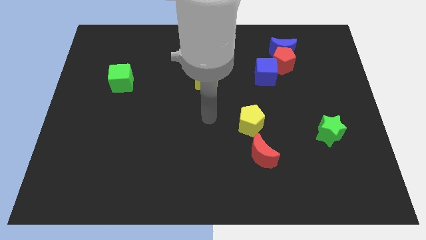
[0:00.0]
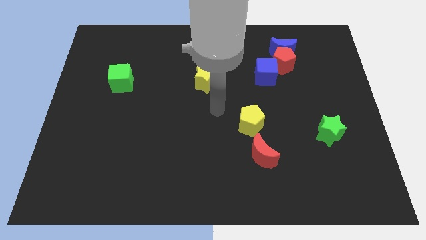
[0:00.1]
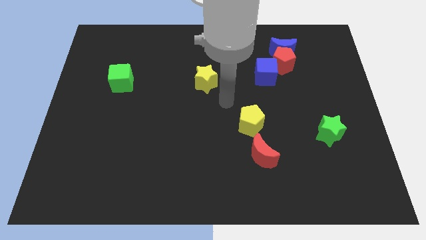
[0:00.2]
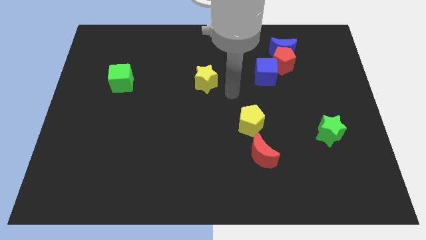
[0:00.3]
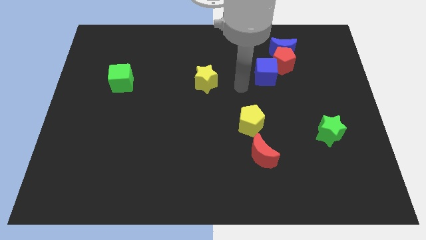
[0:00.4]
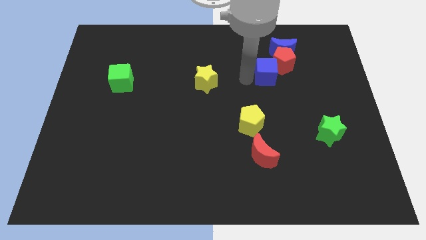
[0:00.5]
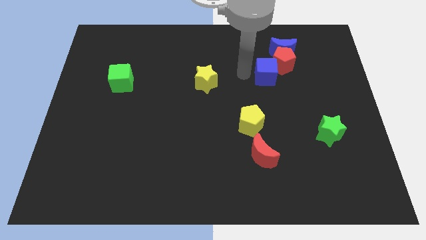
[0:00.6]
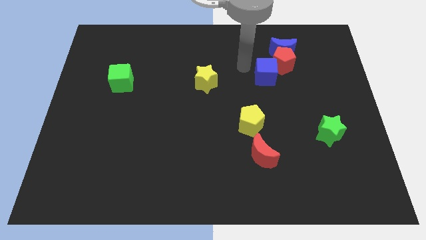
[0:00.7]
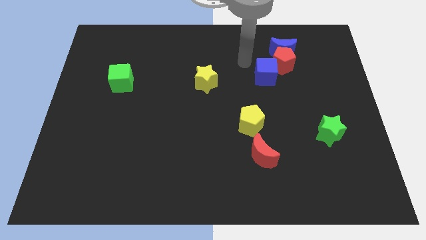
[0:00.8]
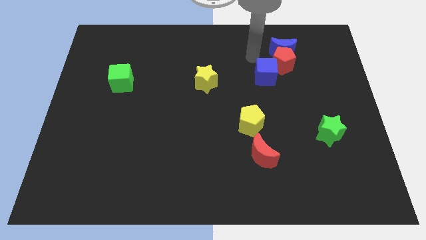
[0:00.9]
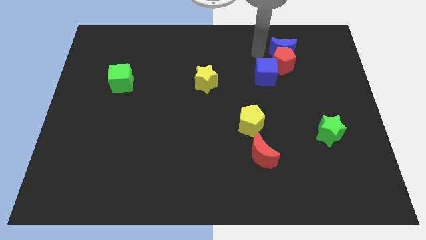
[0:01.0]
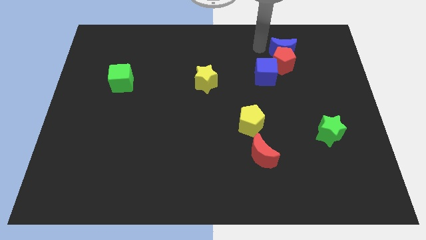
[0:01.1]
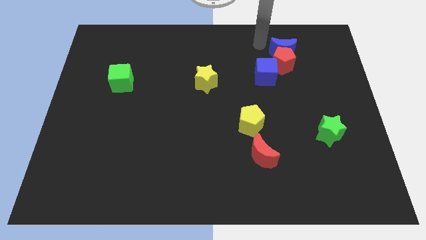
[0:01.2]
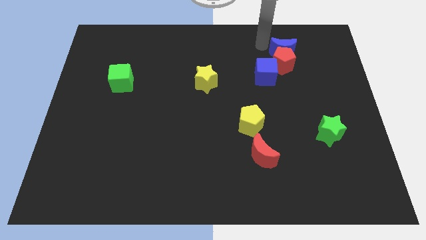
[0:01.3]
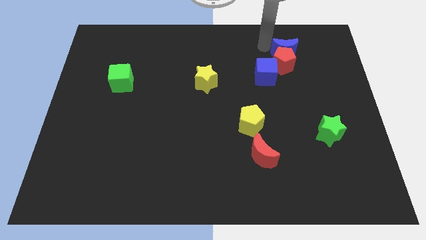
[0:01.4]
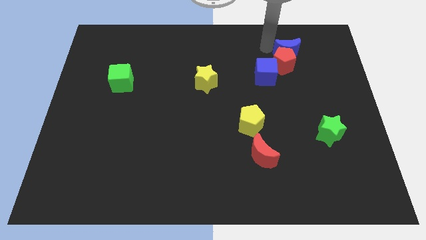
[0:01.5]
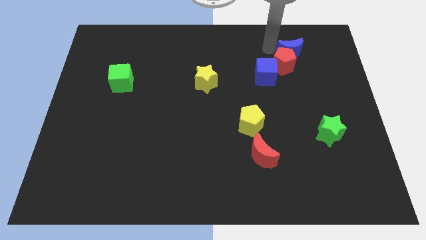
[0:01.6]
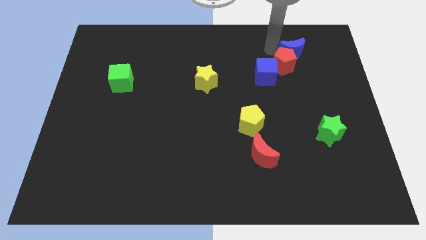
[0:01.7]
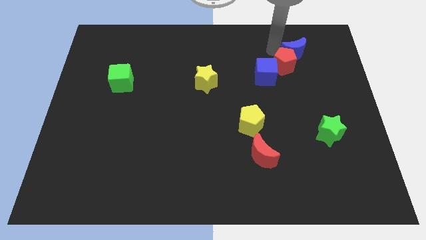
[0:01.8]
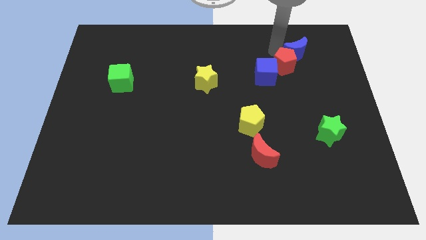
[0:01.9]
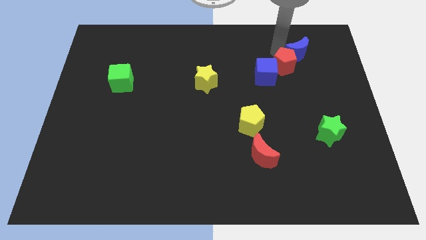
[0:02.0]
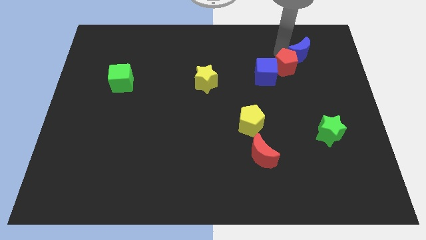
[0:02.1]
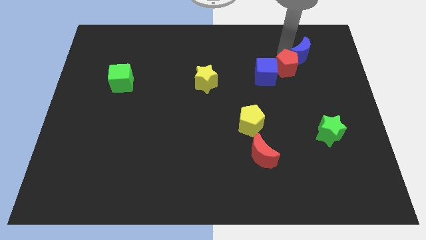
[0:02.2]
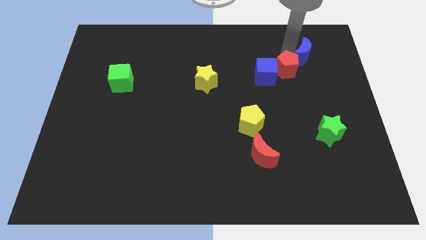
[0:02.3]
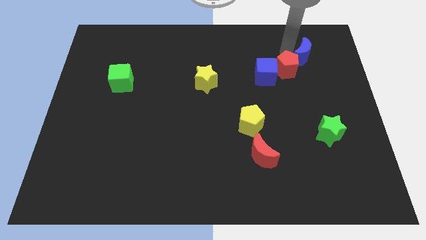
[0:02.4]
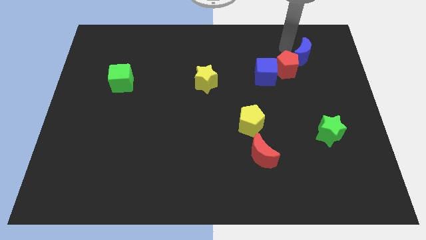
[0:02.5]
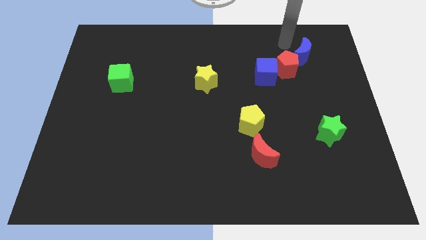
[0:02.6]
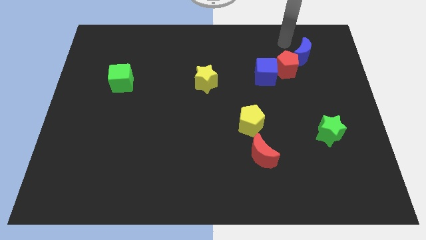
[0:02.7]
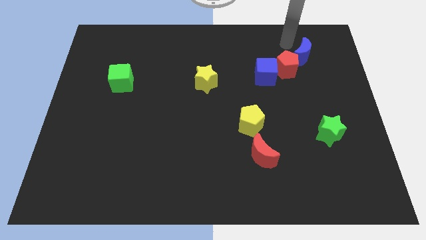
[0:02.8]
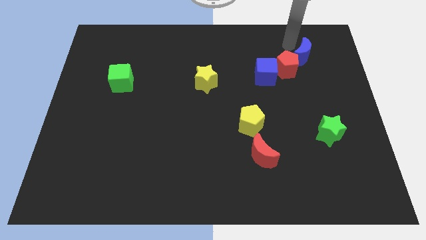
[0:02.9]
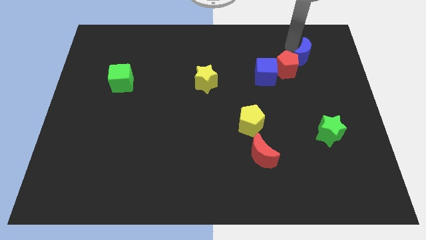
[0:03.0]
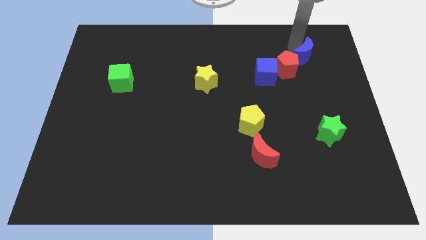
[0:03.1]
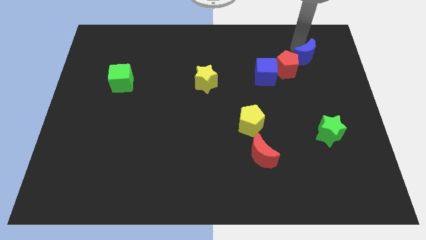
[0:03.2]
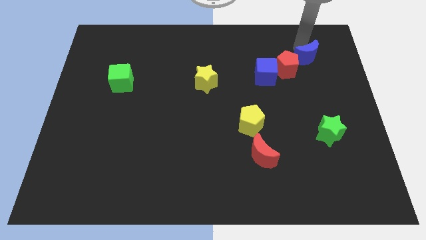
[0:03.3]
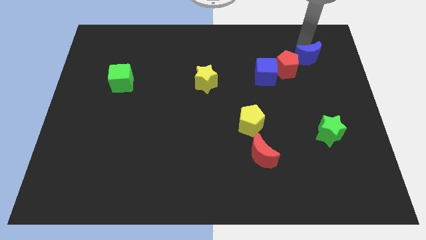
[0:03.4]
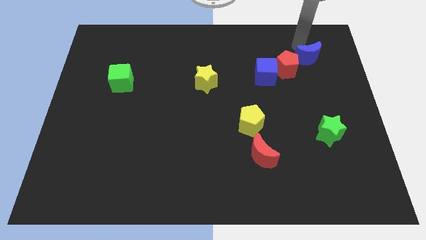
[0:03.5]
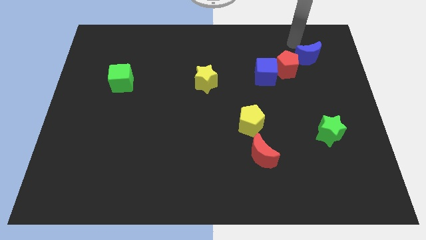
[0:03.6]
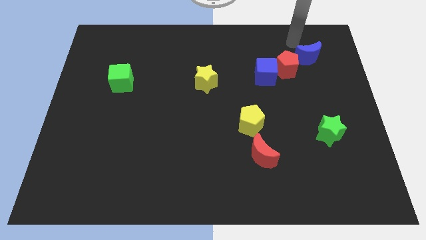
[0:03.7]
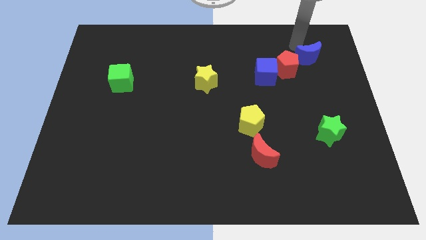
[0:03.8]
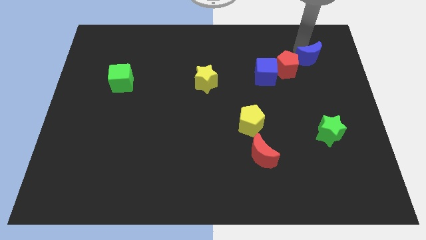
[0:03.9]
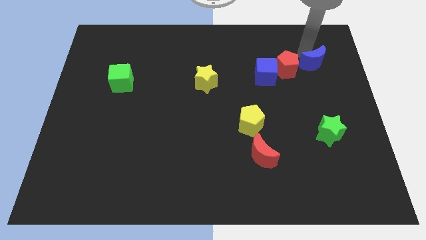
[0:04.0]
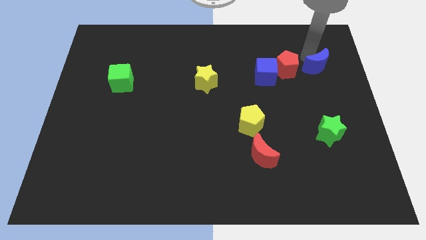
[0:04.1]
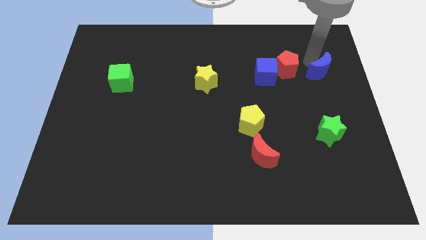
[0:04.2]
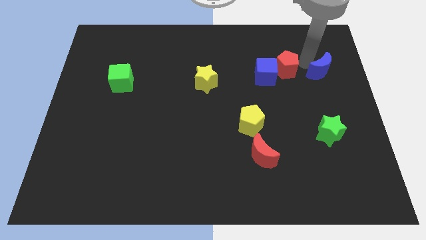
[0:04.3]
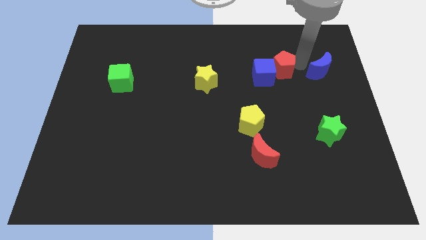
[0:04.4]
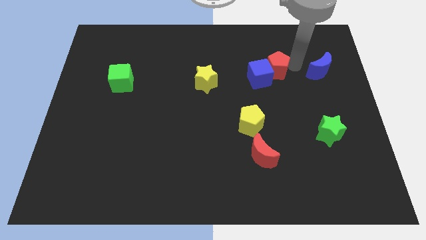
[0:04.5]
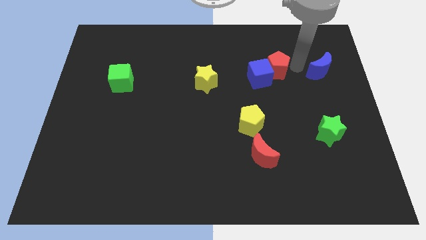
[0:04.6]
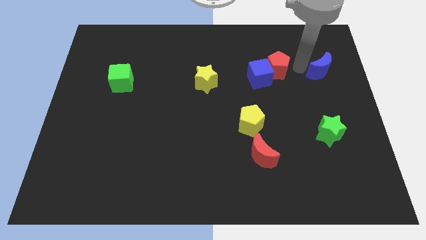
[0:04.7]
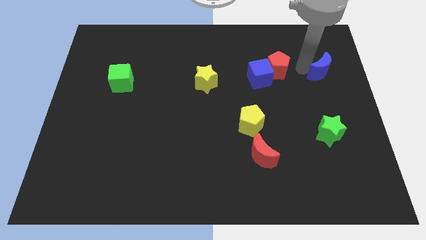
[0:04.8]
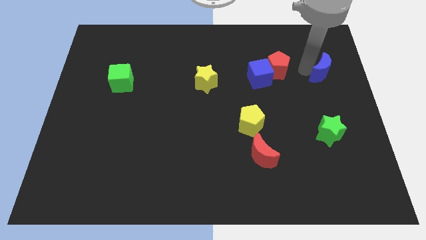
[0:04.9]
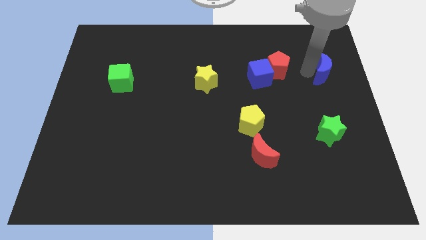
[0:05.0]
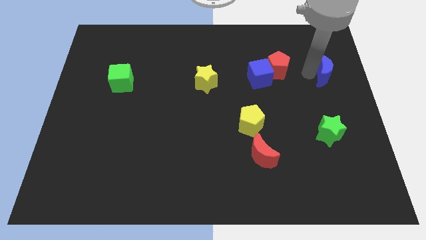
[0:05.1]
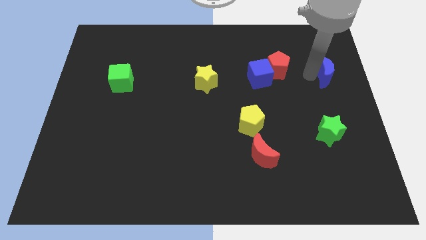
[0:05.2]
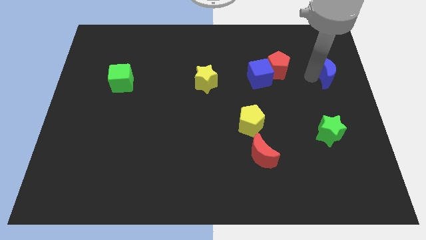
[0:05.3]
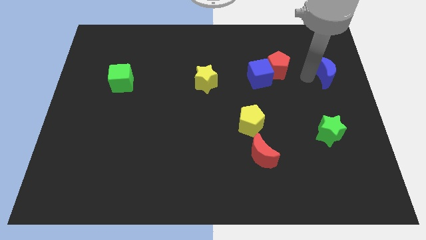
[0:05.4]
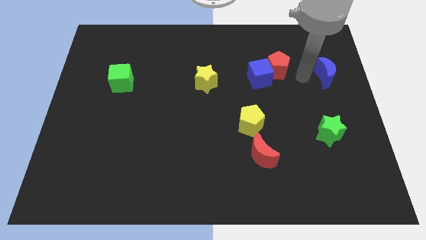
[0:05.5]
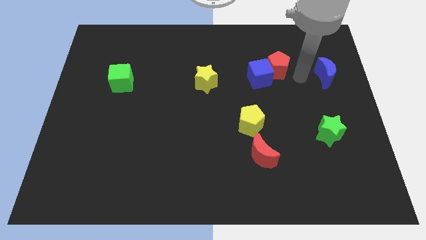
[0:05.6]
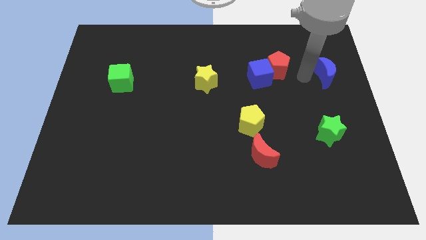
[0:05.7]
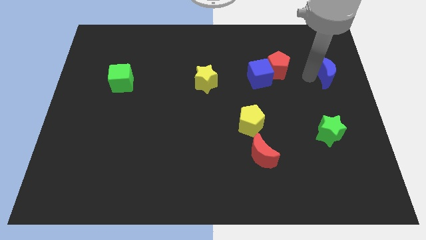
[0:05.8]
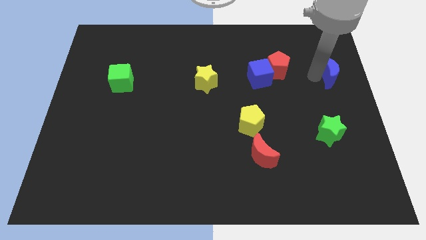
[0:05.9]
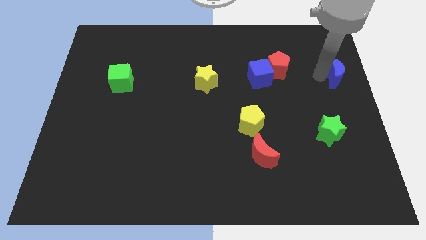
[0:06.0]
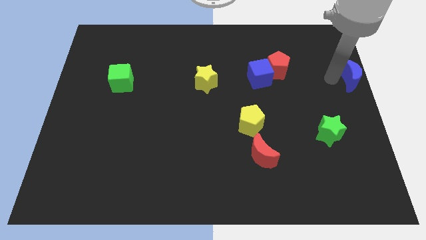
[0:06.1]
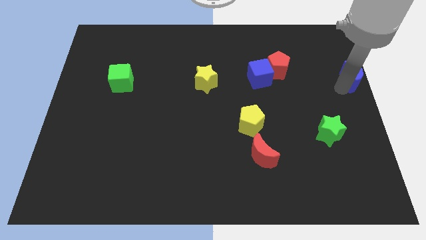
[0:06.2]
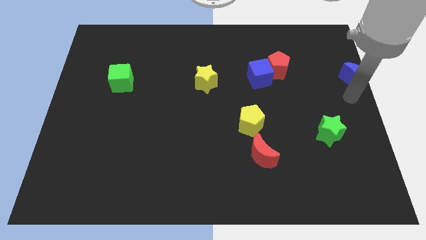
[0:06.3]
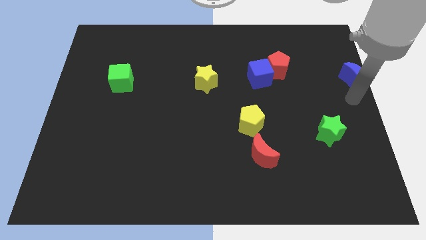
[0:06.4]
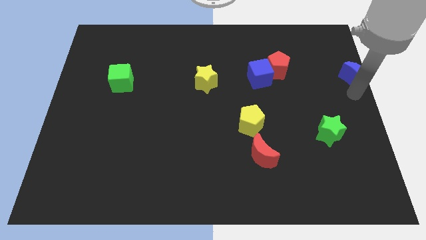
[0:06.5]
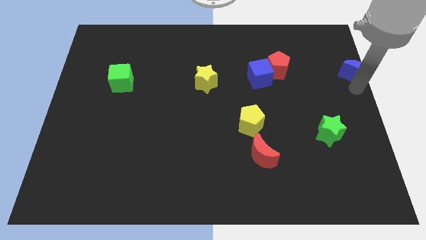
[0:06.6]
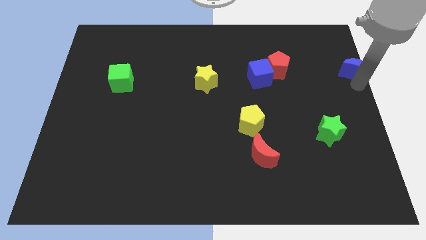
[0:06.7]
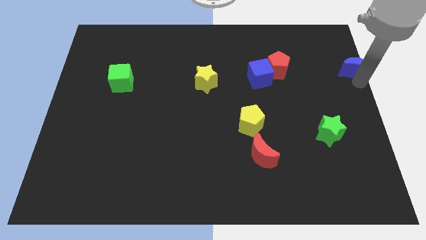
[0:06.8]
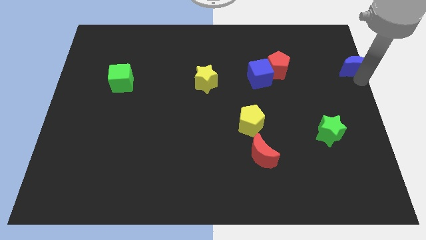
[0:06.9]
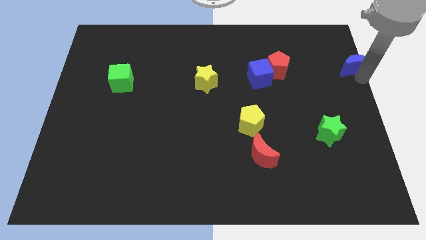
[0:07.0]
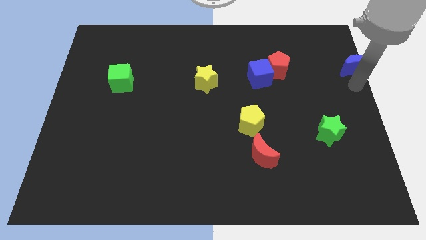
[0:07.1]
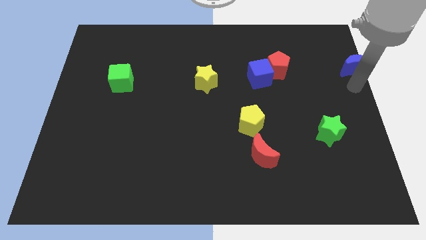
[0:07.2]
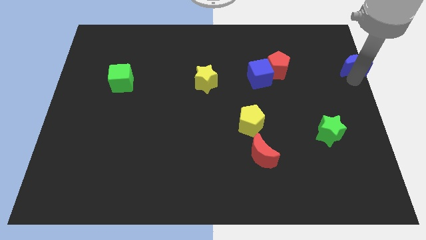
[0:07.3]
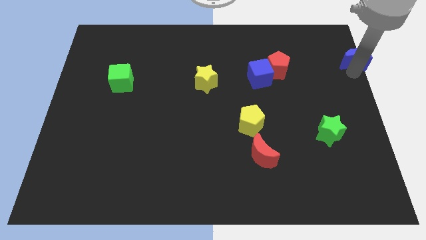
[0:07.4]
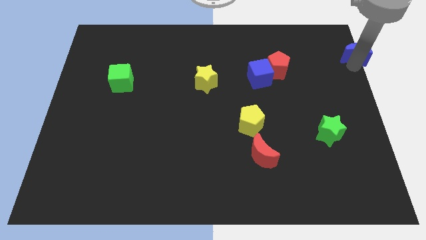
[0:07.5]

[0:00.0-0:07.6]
push the blue moon to the top right corner
